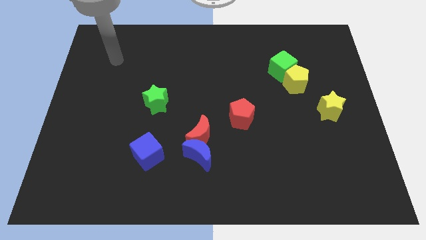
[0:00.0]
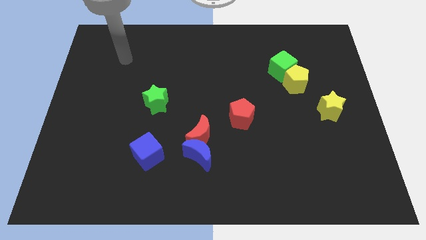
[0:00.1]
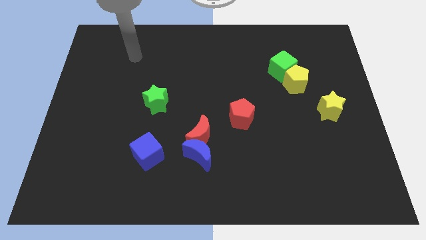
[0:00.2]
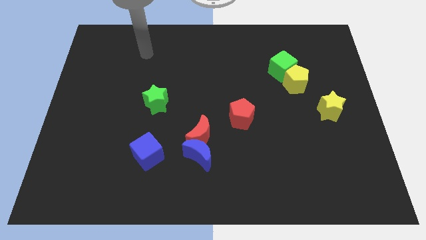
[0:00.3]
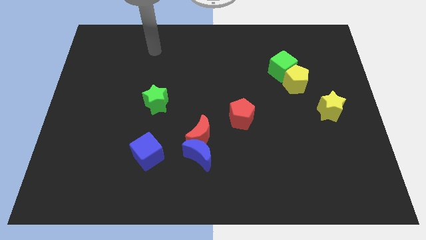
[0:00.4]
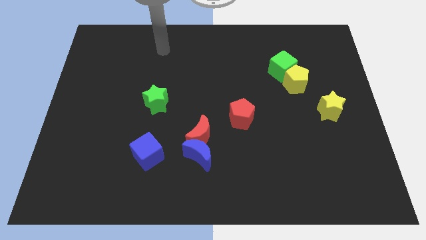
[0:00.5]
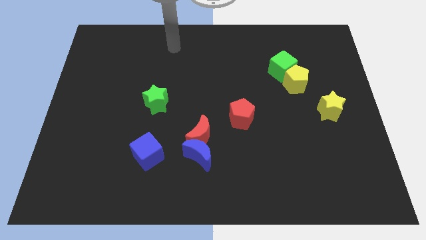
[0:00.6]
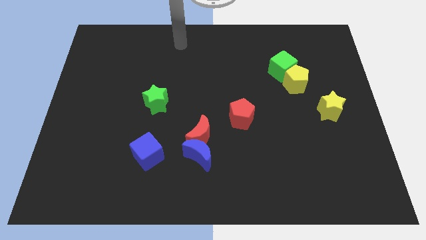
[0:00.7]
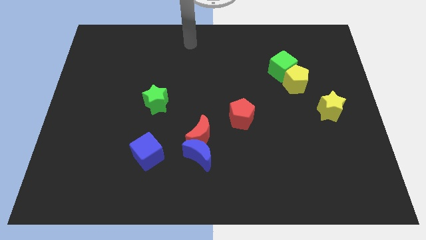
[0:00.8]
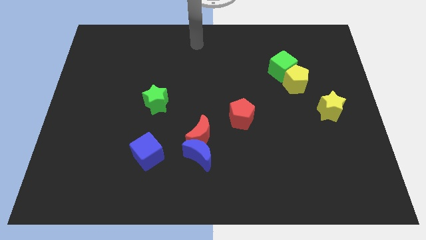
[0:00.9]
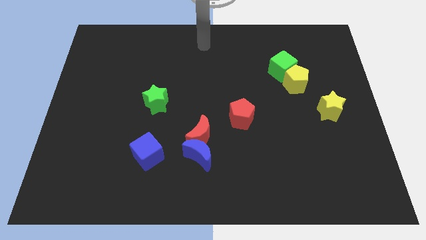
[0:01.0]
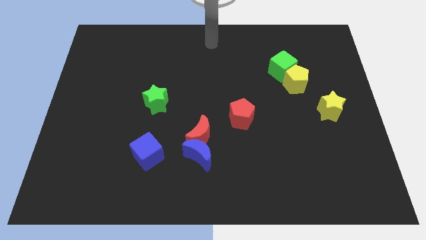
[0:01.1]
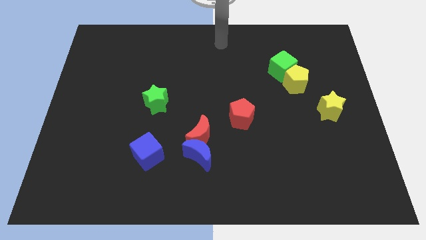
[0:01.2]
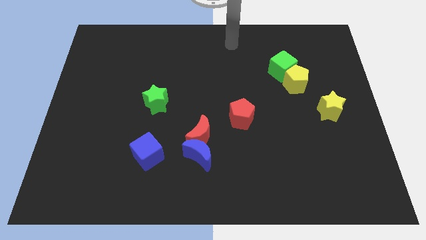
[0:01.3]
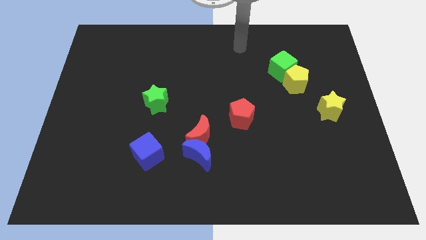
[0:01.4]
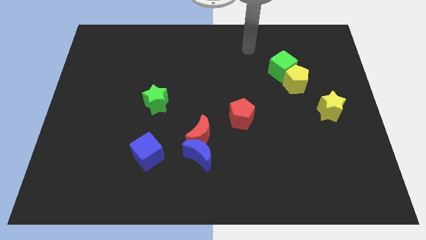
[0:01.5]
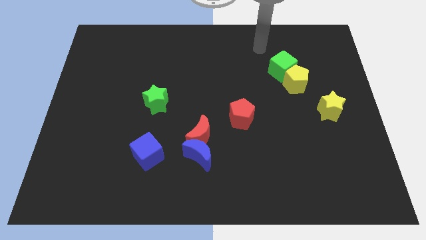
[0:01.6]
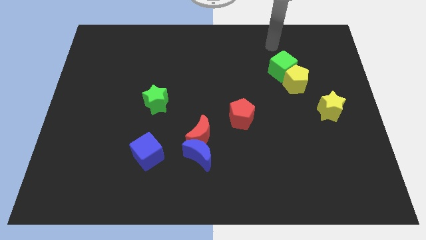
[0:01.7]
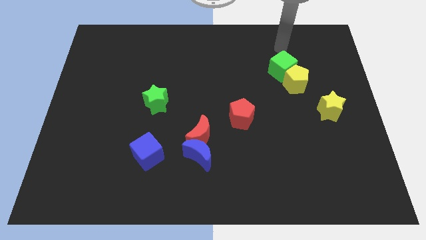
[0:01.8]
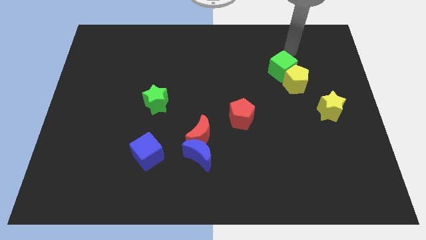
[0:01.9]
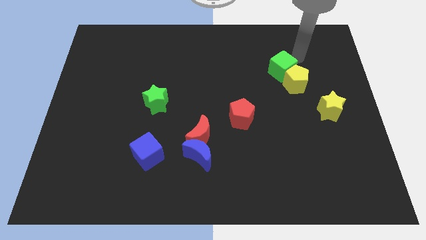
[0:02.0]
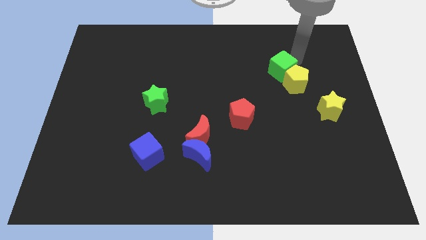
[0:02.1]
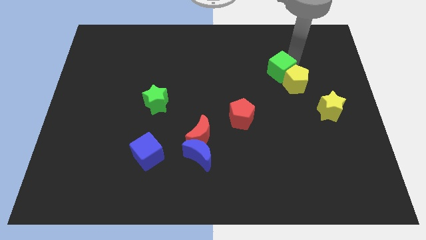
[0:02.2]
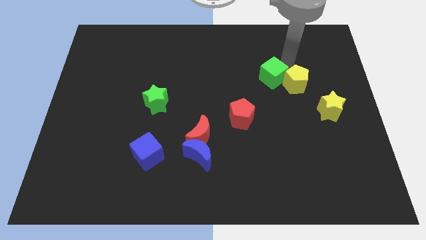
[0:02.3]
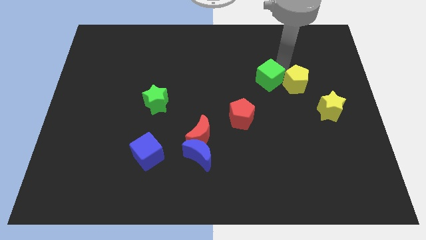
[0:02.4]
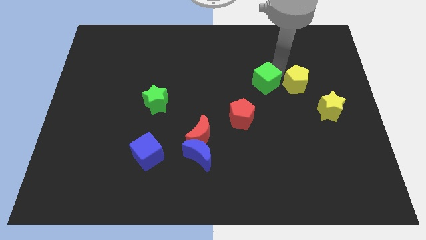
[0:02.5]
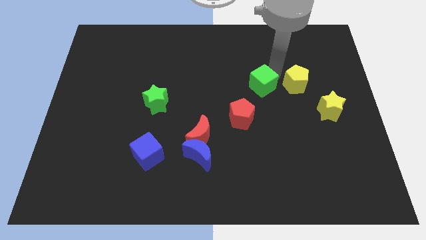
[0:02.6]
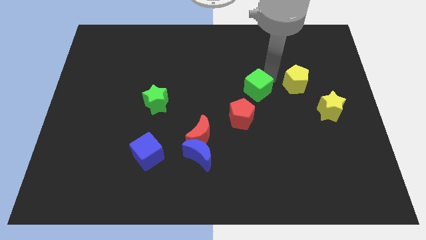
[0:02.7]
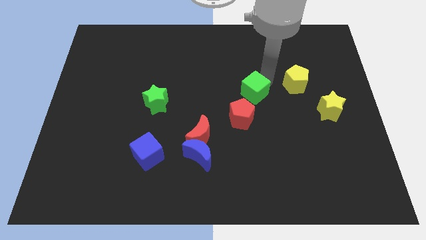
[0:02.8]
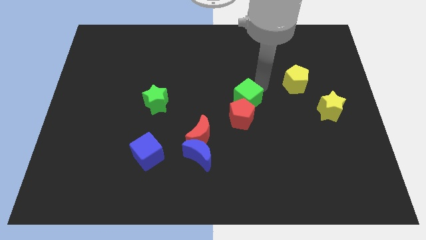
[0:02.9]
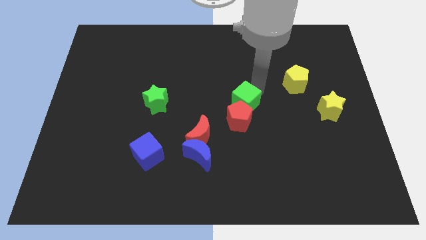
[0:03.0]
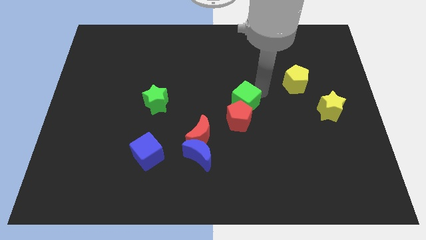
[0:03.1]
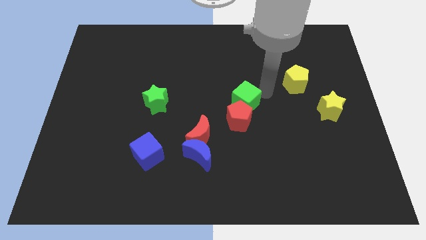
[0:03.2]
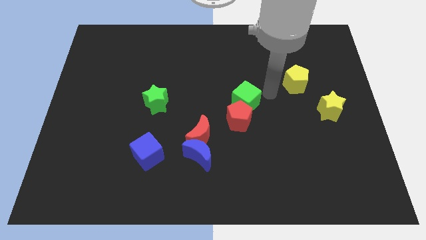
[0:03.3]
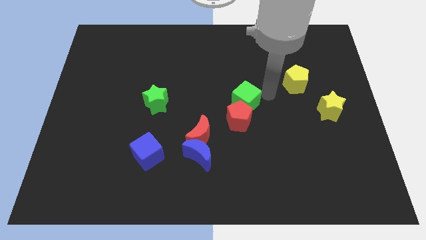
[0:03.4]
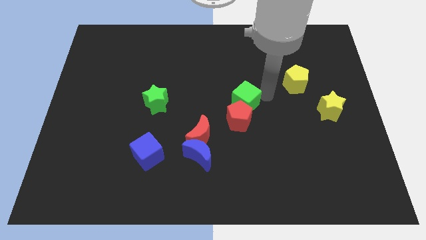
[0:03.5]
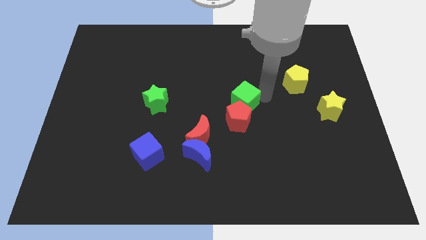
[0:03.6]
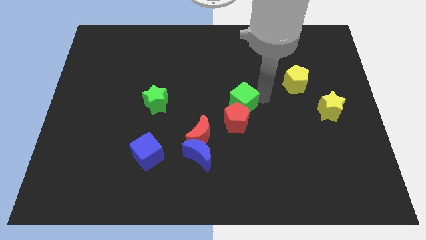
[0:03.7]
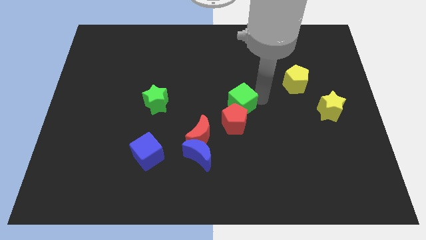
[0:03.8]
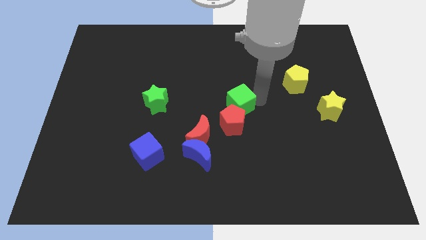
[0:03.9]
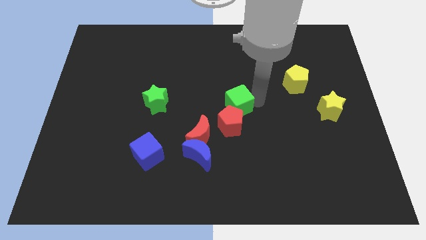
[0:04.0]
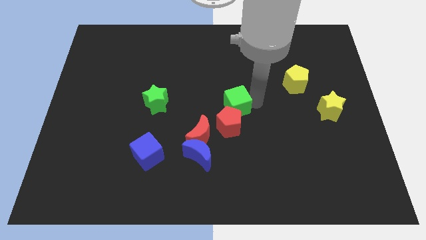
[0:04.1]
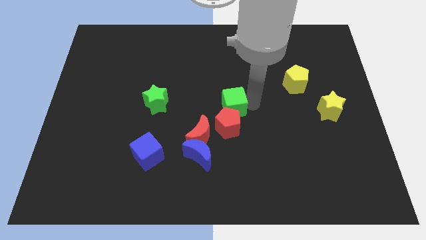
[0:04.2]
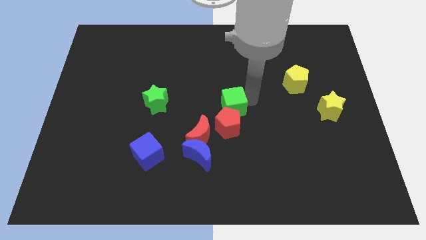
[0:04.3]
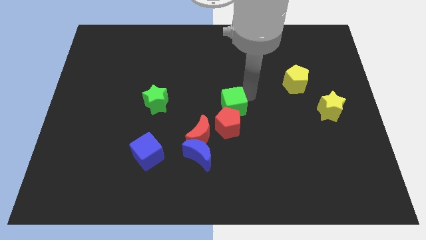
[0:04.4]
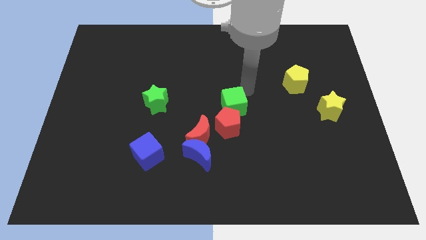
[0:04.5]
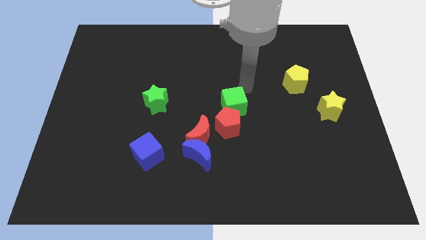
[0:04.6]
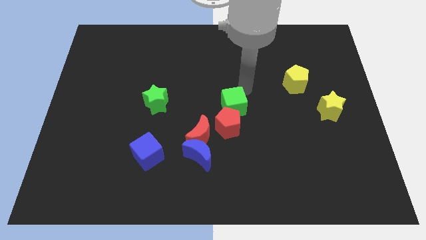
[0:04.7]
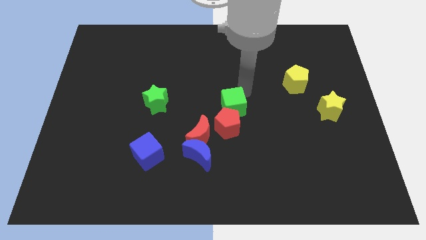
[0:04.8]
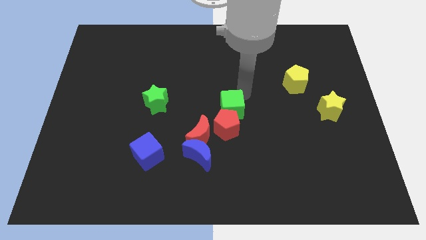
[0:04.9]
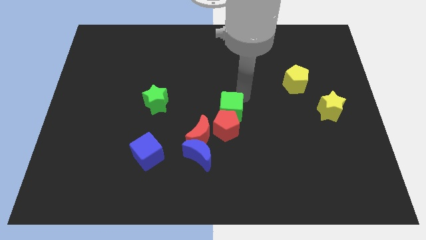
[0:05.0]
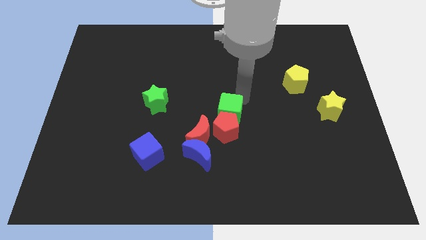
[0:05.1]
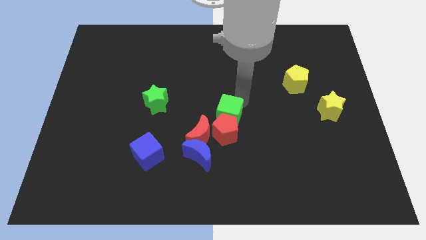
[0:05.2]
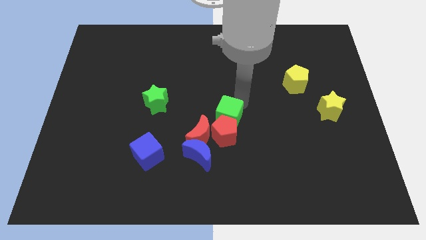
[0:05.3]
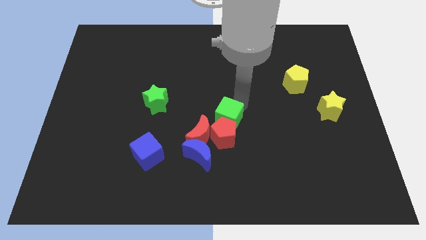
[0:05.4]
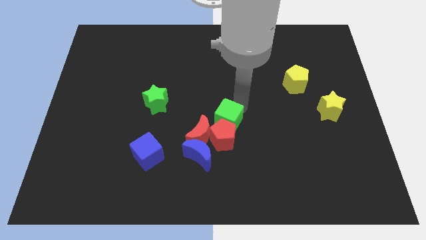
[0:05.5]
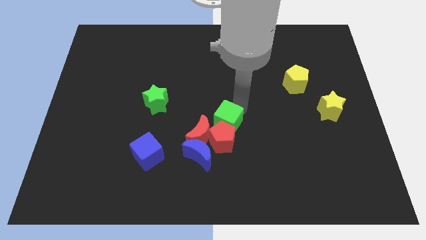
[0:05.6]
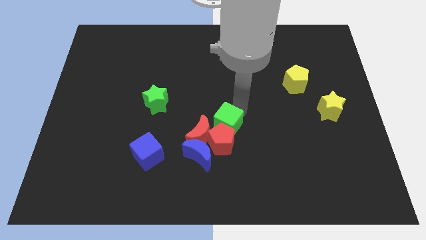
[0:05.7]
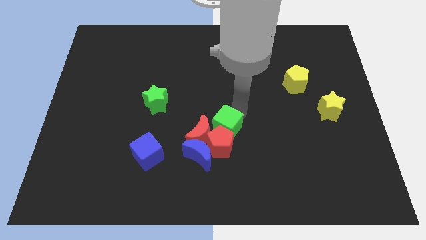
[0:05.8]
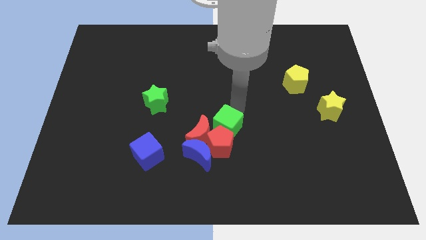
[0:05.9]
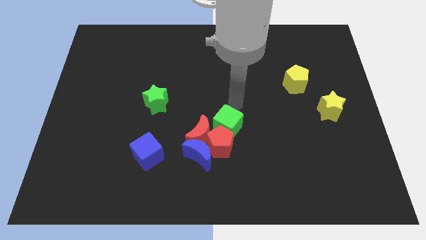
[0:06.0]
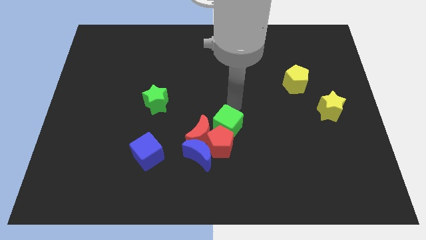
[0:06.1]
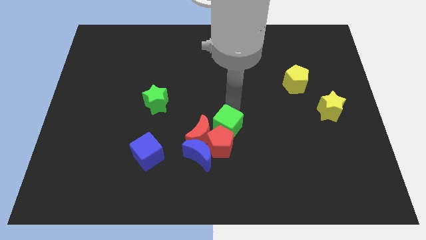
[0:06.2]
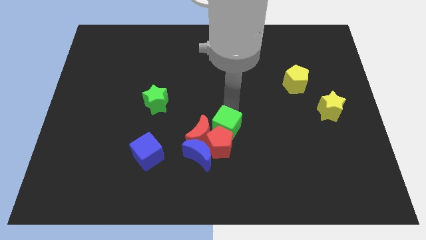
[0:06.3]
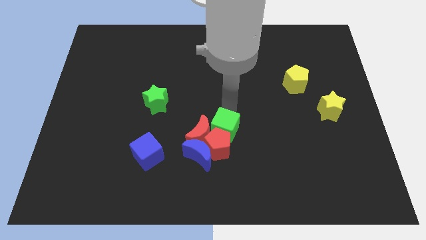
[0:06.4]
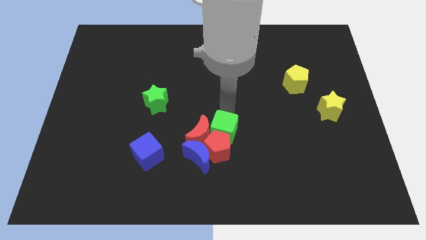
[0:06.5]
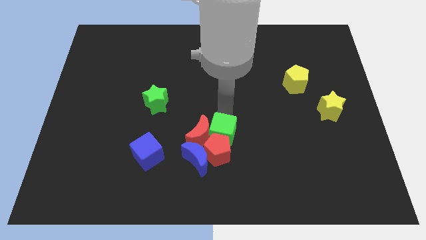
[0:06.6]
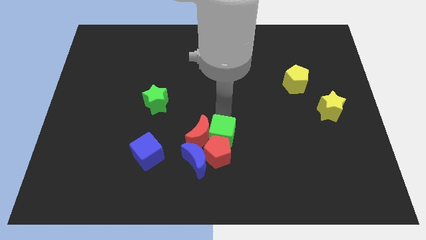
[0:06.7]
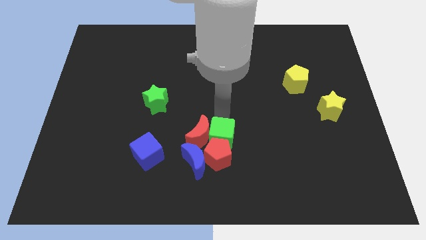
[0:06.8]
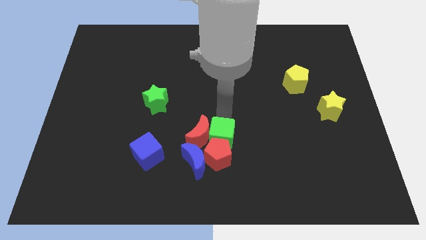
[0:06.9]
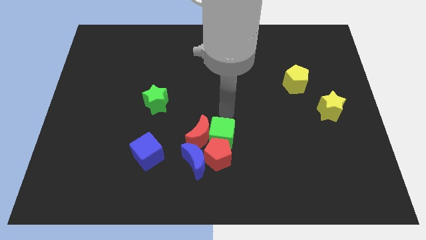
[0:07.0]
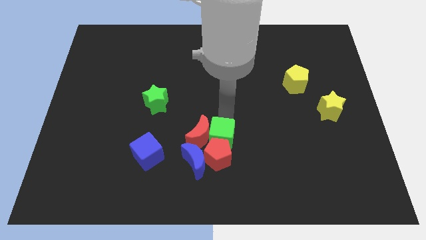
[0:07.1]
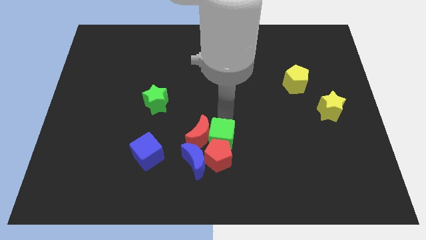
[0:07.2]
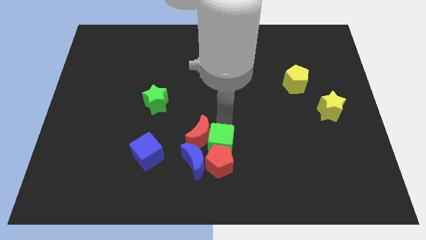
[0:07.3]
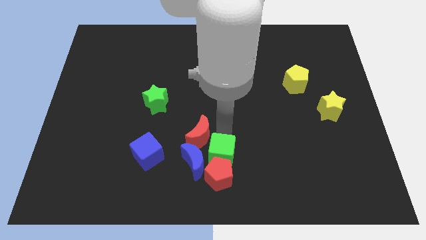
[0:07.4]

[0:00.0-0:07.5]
slide the green cube below the red moon
